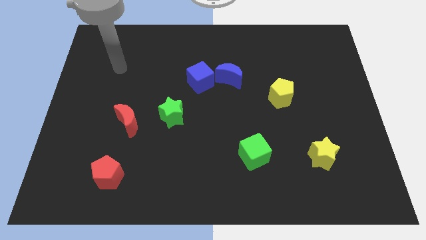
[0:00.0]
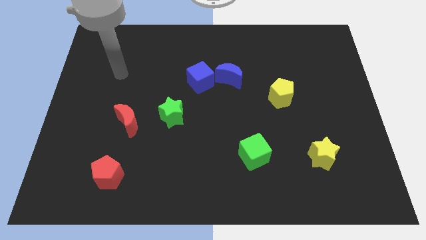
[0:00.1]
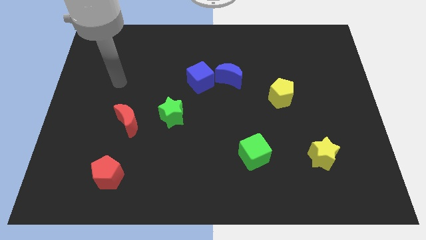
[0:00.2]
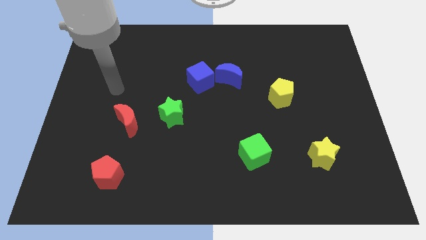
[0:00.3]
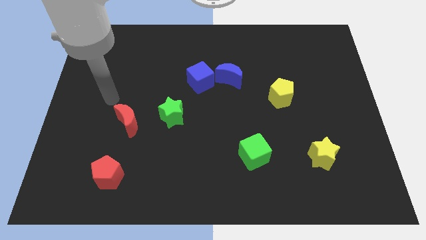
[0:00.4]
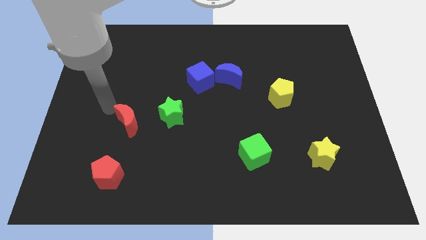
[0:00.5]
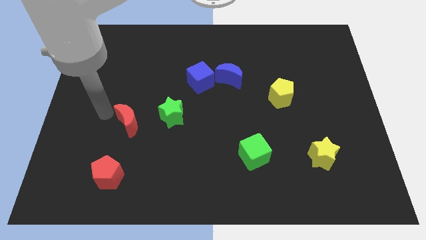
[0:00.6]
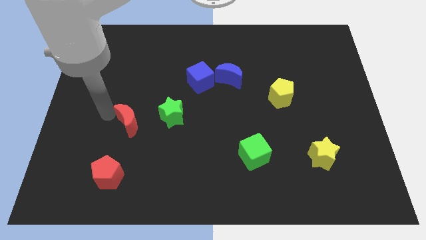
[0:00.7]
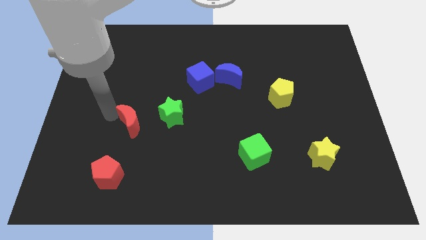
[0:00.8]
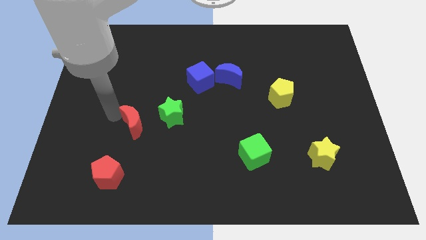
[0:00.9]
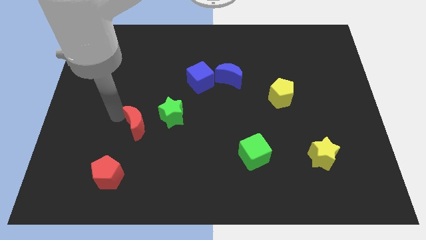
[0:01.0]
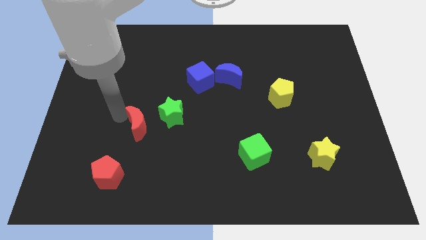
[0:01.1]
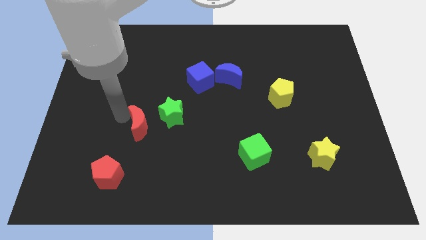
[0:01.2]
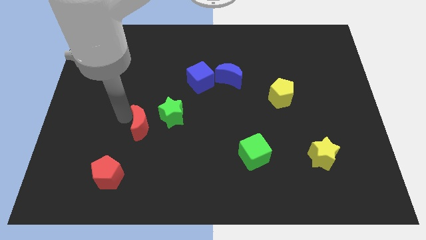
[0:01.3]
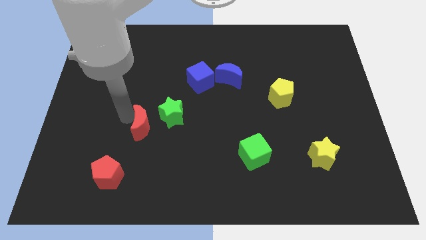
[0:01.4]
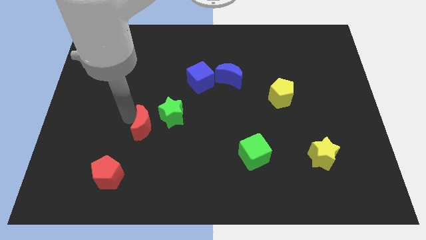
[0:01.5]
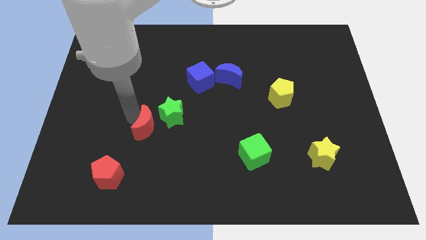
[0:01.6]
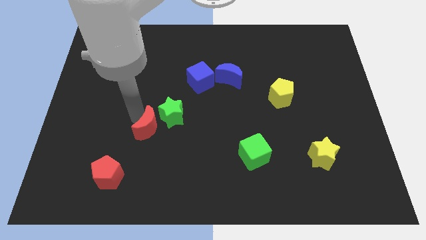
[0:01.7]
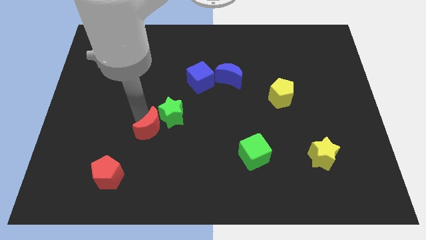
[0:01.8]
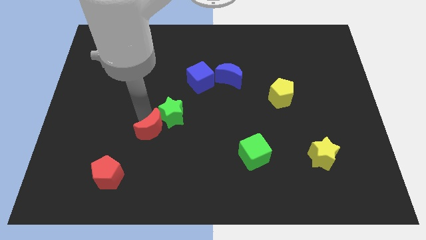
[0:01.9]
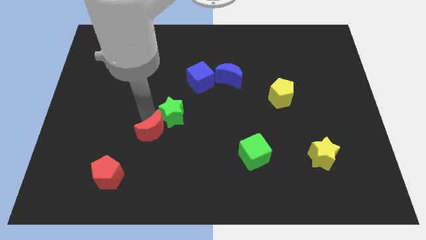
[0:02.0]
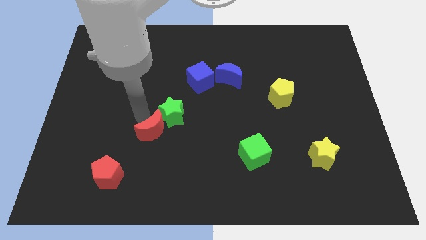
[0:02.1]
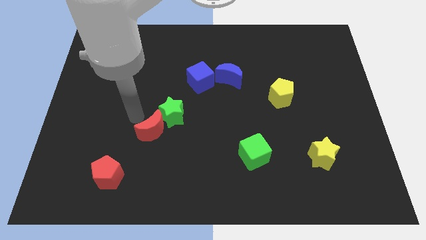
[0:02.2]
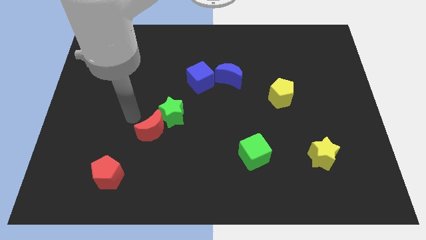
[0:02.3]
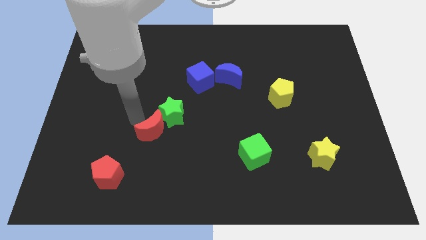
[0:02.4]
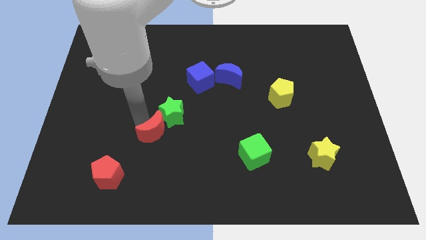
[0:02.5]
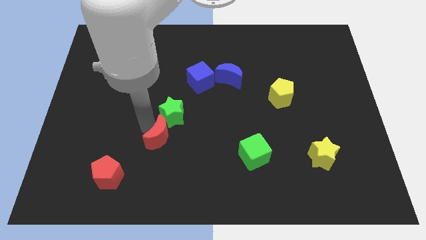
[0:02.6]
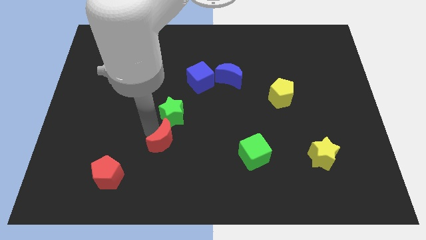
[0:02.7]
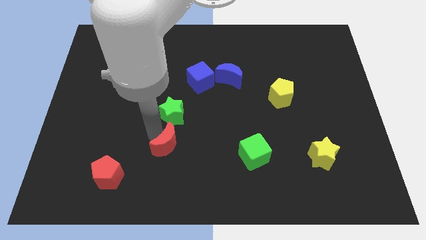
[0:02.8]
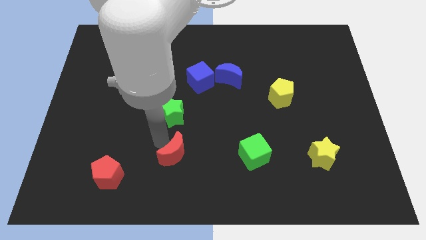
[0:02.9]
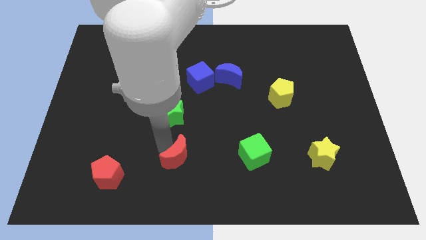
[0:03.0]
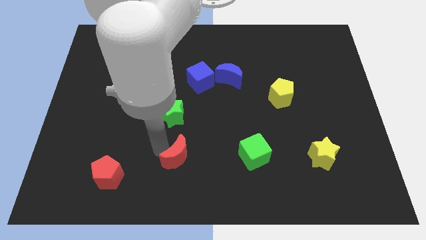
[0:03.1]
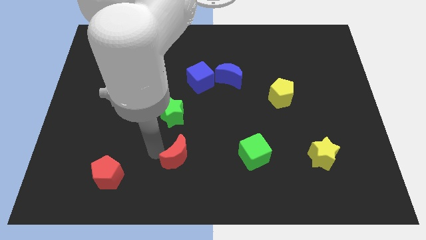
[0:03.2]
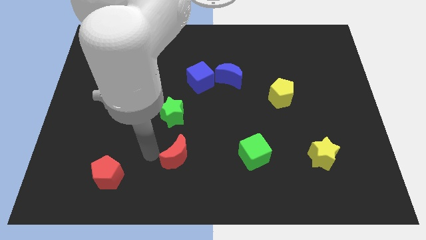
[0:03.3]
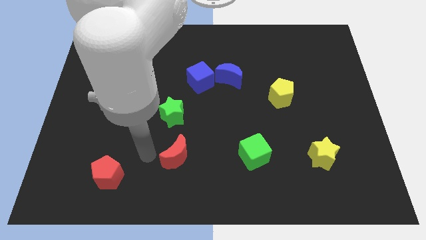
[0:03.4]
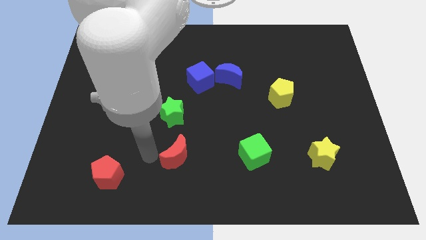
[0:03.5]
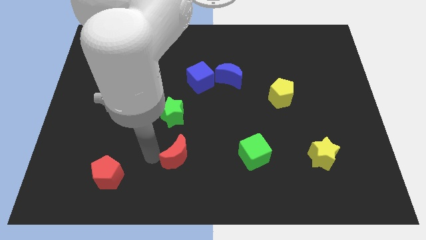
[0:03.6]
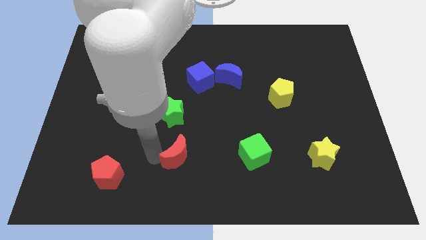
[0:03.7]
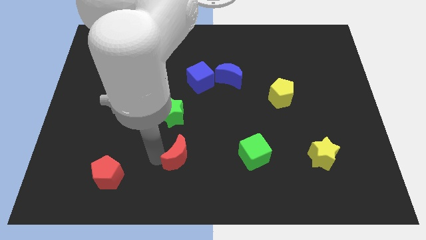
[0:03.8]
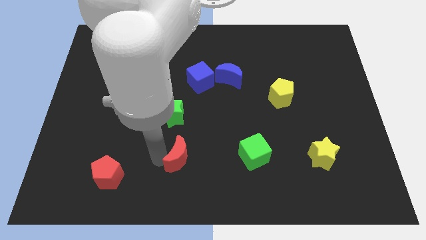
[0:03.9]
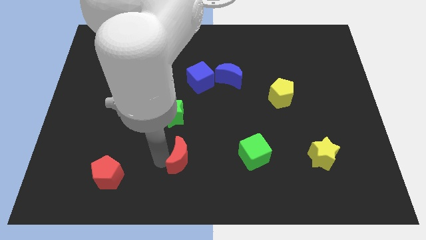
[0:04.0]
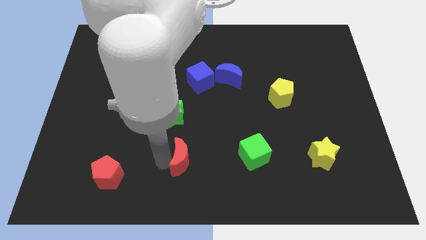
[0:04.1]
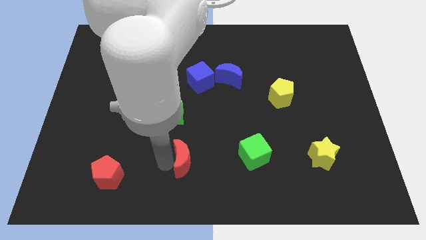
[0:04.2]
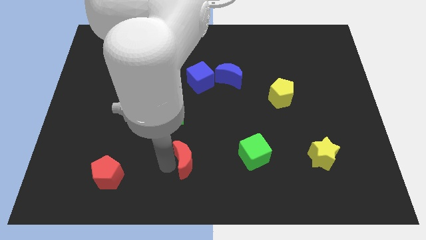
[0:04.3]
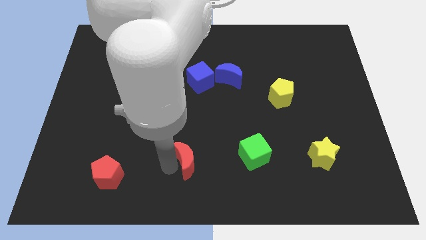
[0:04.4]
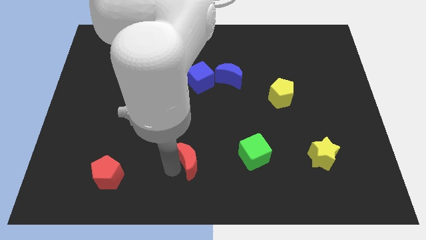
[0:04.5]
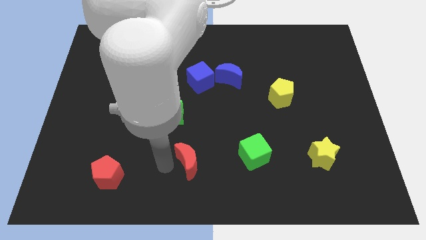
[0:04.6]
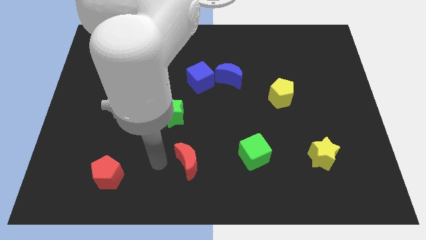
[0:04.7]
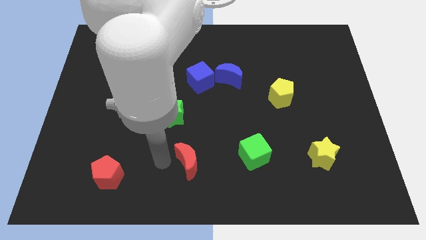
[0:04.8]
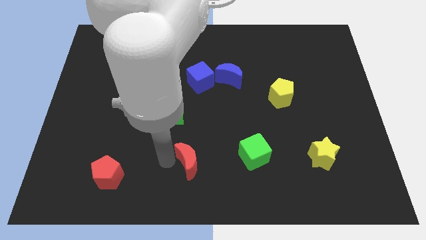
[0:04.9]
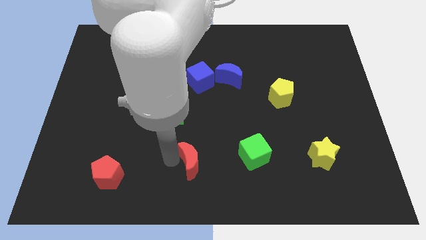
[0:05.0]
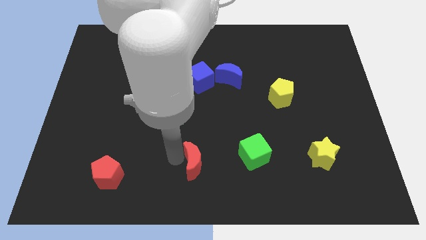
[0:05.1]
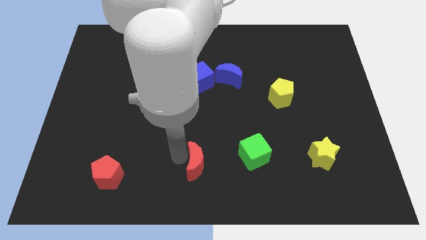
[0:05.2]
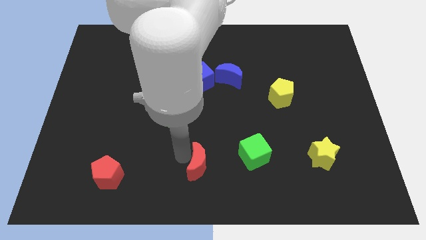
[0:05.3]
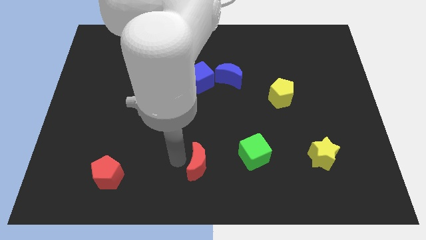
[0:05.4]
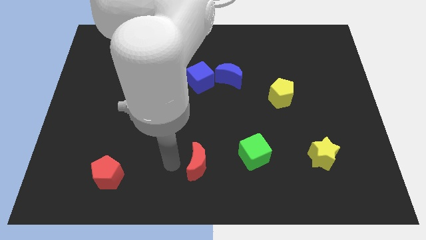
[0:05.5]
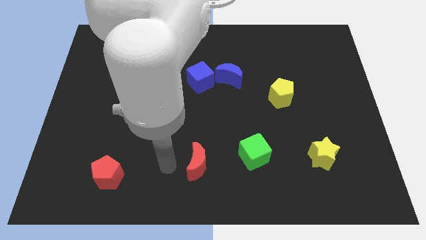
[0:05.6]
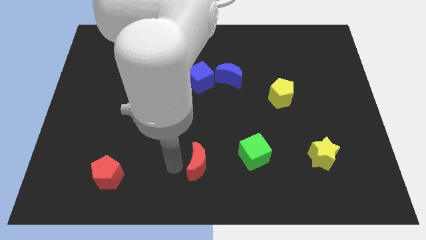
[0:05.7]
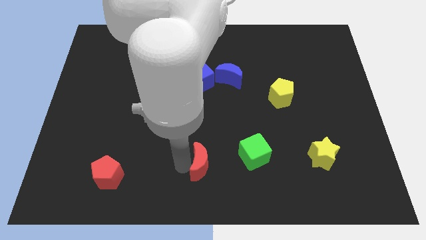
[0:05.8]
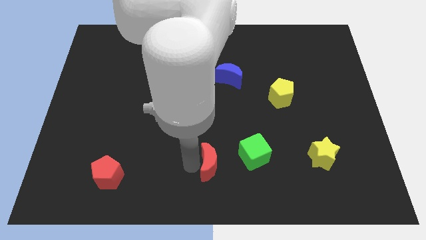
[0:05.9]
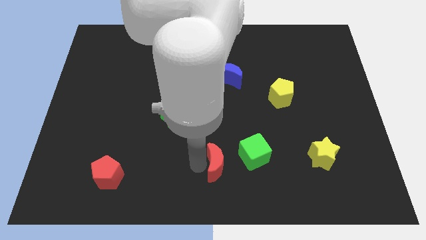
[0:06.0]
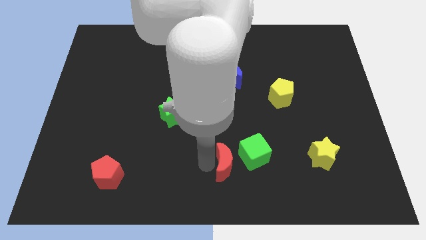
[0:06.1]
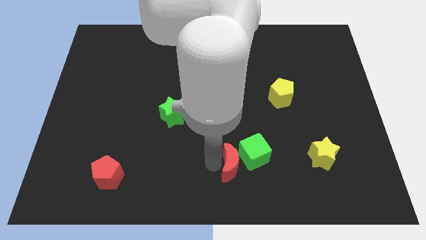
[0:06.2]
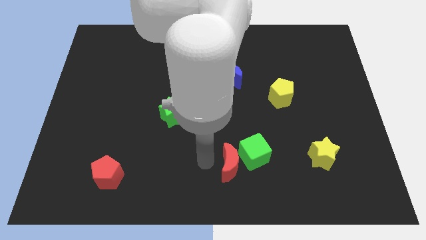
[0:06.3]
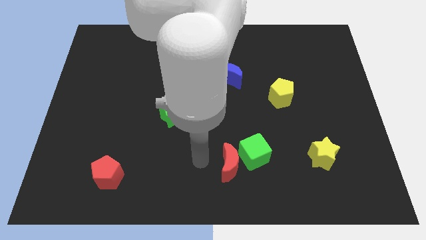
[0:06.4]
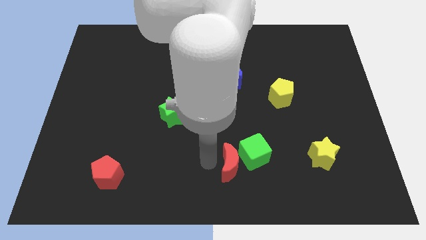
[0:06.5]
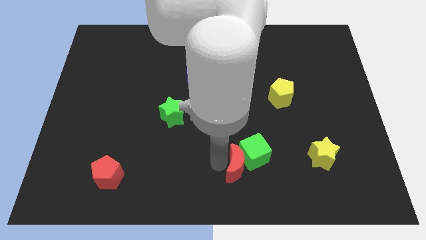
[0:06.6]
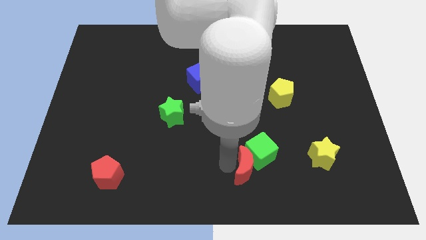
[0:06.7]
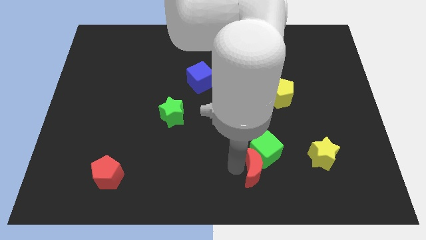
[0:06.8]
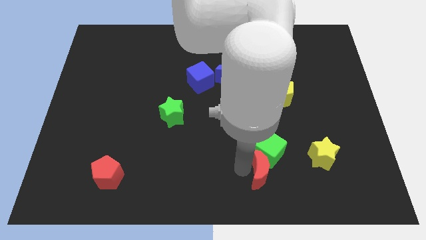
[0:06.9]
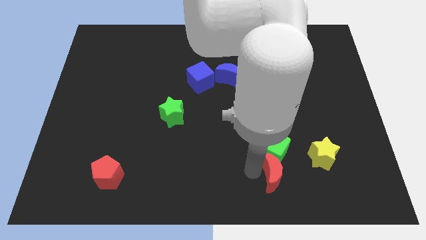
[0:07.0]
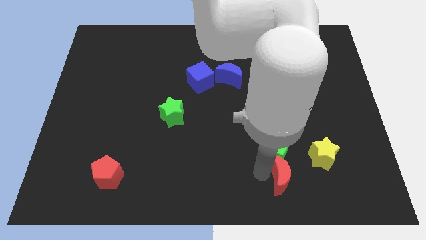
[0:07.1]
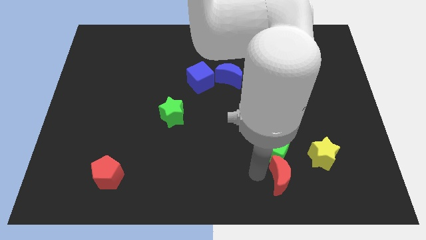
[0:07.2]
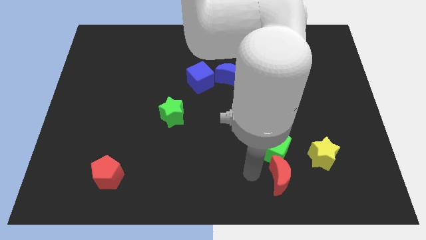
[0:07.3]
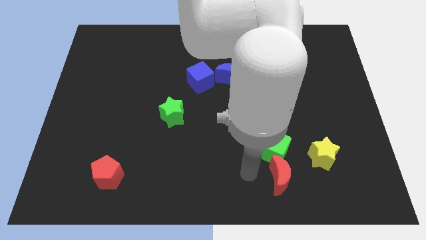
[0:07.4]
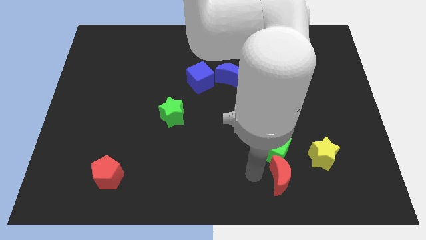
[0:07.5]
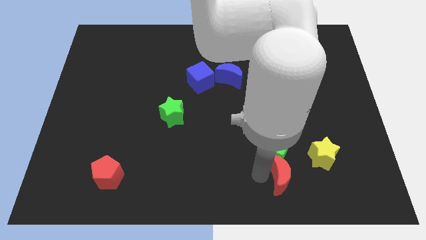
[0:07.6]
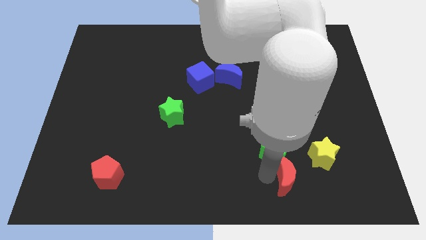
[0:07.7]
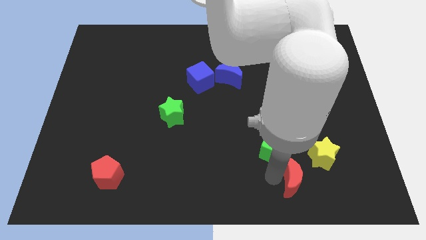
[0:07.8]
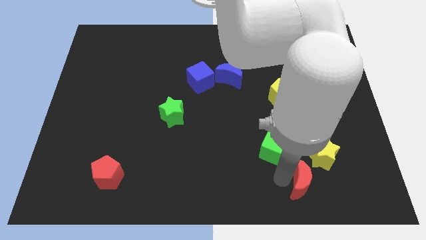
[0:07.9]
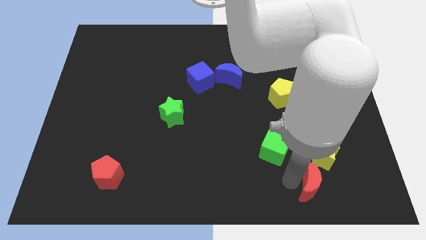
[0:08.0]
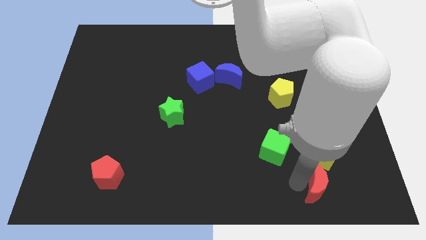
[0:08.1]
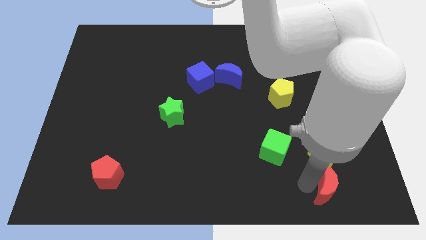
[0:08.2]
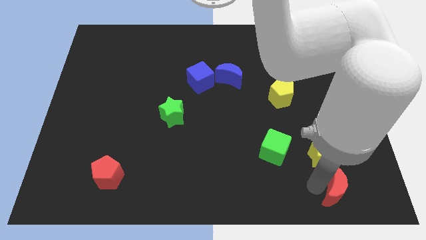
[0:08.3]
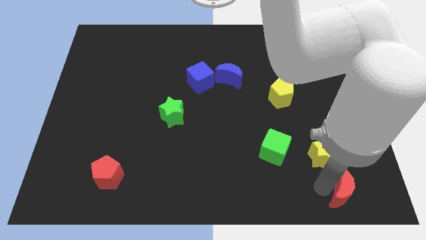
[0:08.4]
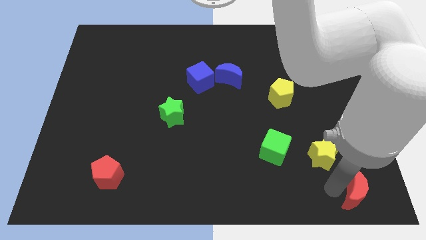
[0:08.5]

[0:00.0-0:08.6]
move the red moon to the lower right corner
